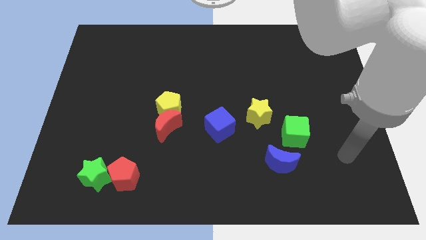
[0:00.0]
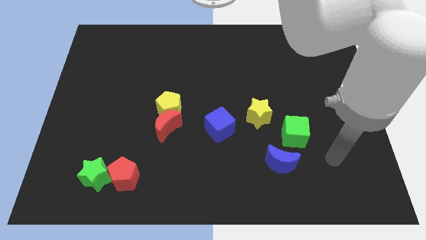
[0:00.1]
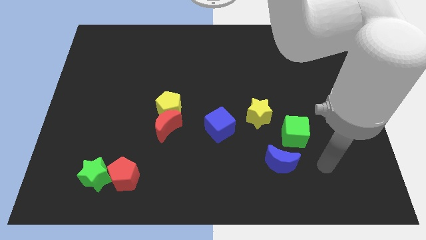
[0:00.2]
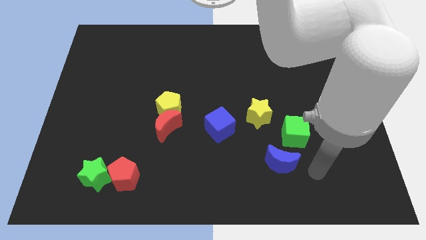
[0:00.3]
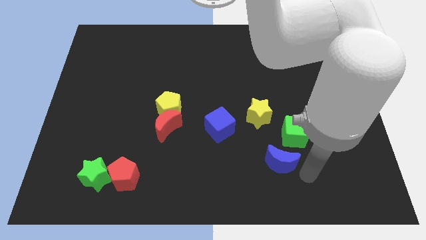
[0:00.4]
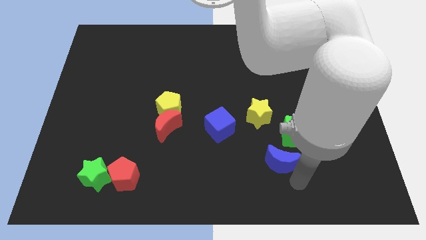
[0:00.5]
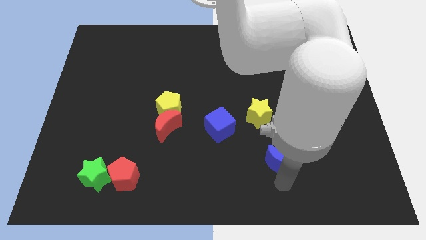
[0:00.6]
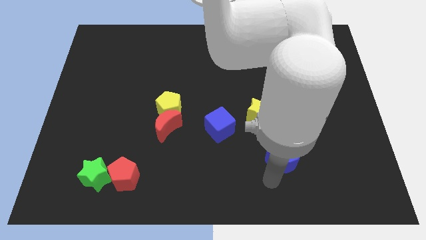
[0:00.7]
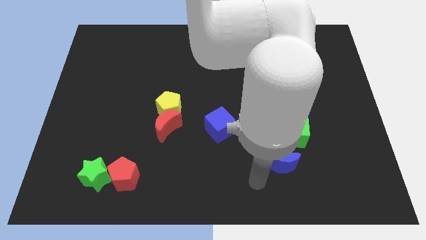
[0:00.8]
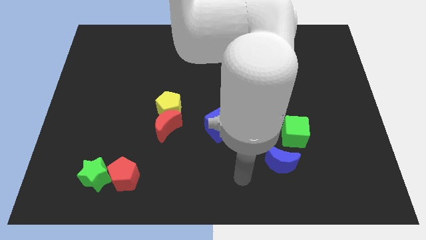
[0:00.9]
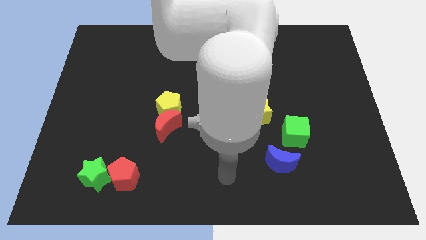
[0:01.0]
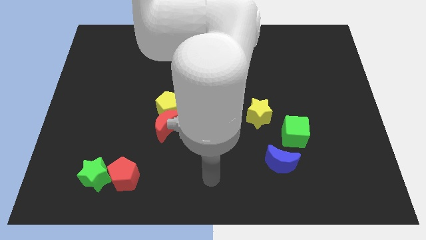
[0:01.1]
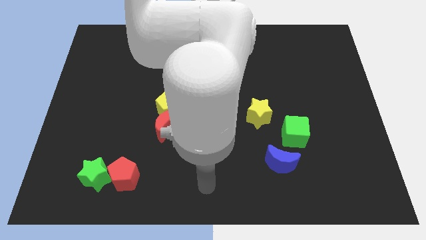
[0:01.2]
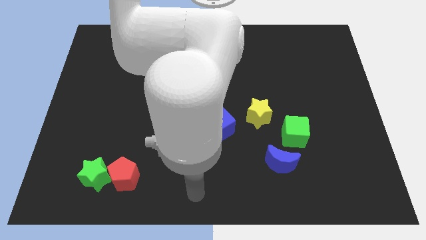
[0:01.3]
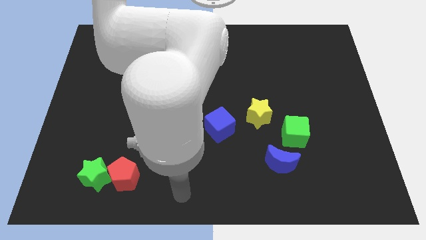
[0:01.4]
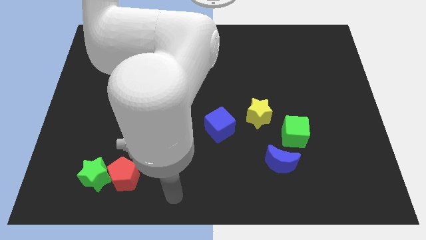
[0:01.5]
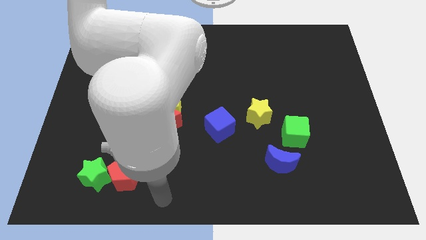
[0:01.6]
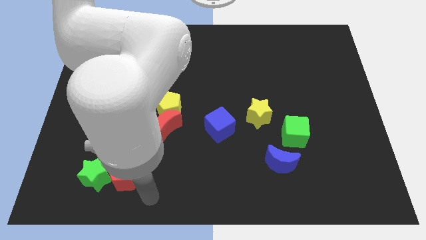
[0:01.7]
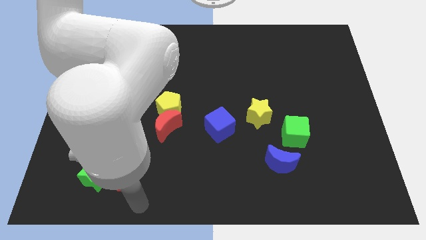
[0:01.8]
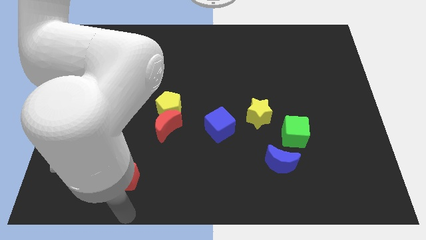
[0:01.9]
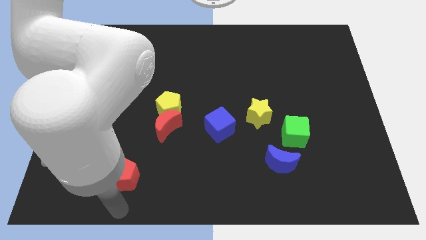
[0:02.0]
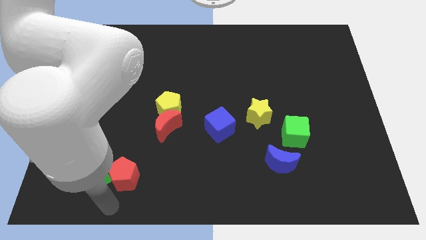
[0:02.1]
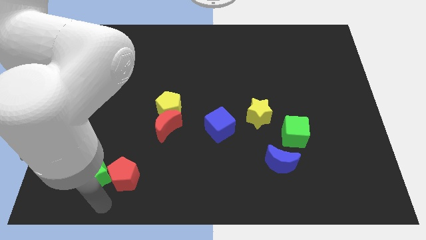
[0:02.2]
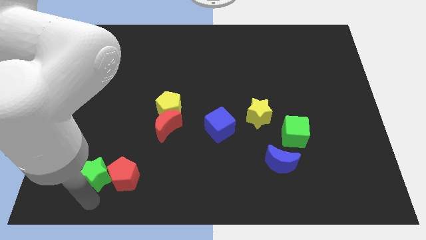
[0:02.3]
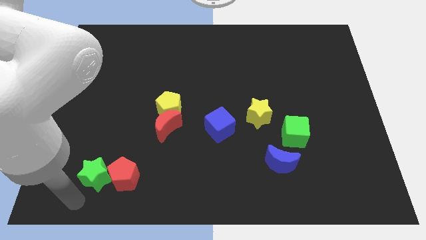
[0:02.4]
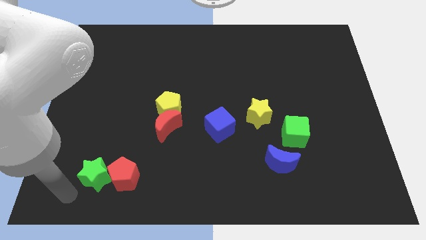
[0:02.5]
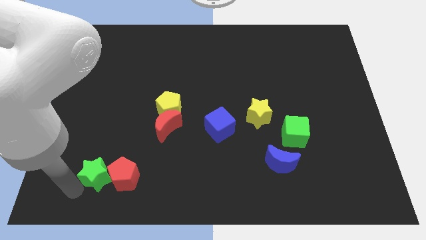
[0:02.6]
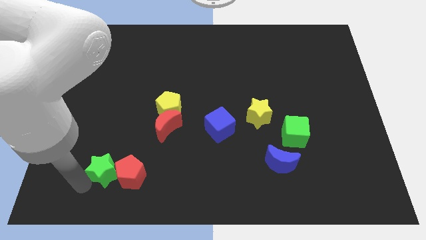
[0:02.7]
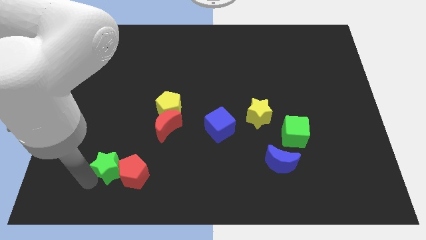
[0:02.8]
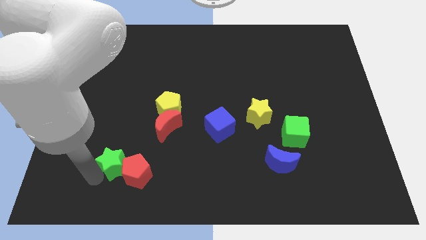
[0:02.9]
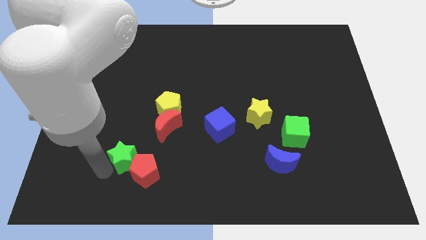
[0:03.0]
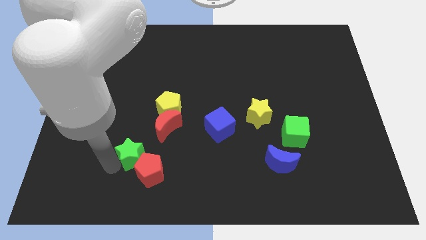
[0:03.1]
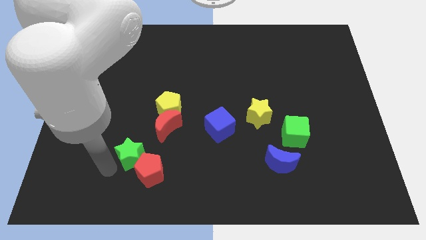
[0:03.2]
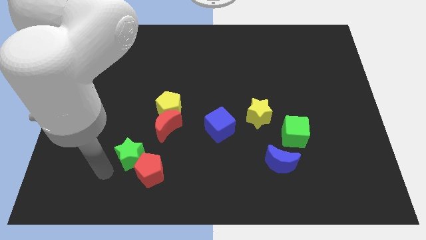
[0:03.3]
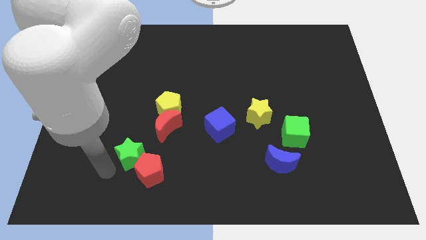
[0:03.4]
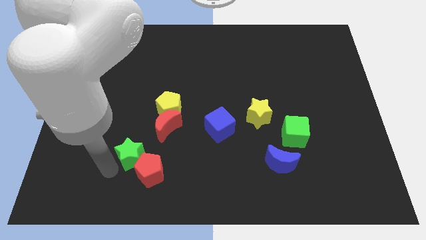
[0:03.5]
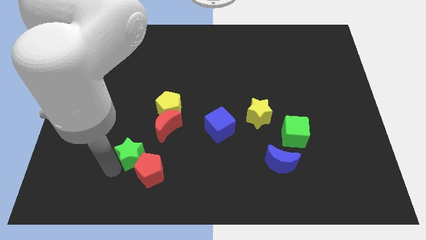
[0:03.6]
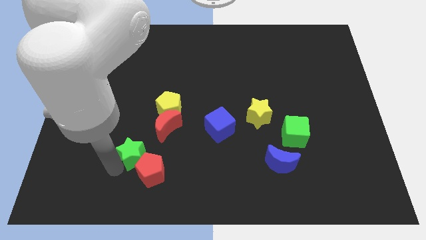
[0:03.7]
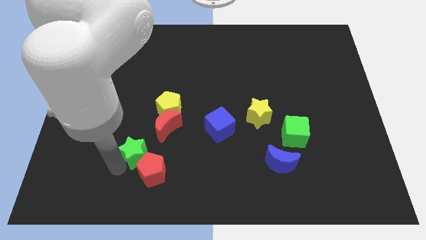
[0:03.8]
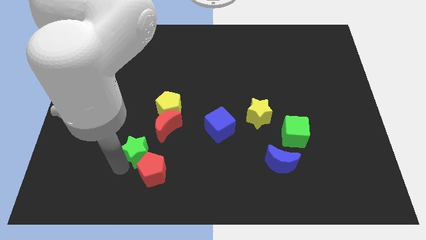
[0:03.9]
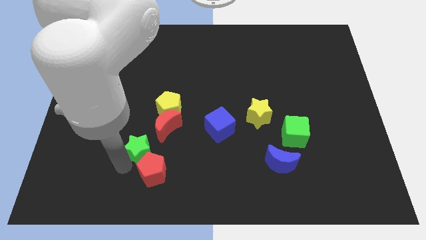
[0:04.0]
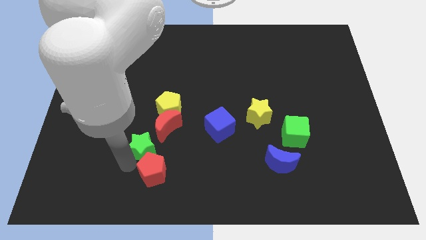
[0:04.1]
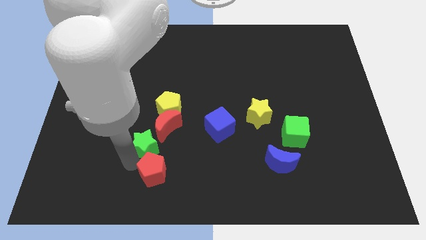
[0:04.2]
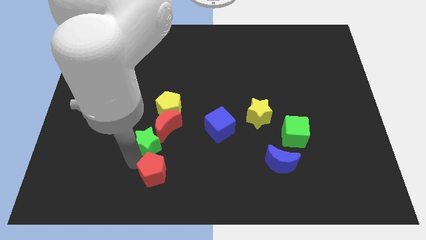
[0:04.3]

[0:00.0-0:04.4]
move the green star towards the red moon

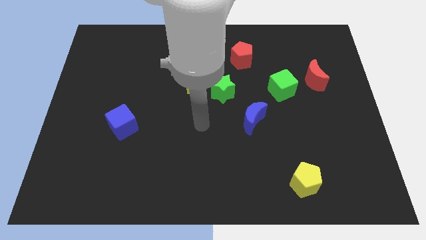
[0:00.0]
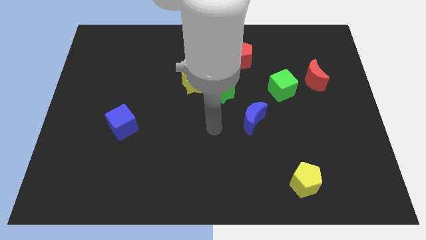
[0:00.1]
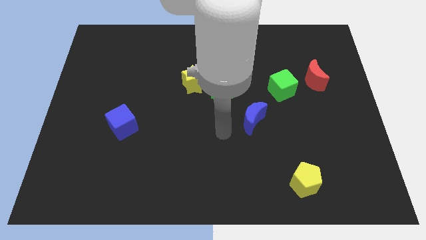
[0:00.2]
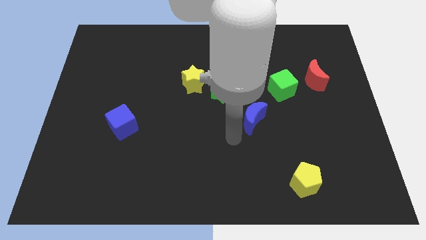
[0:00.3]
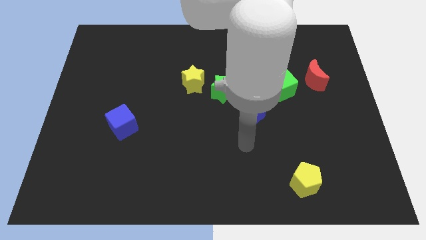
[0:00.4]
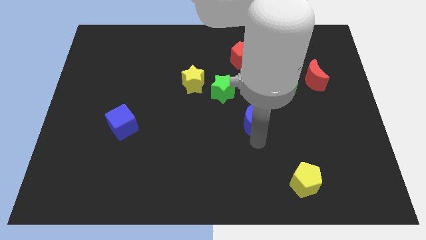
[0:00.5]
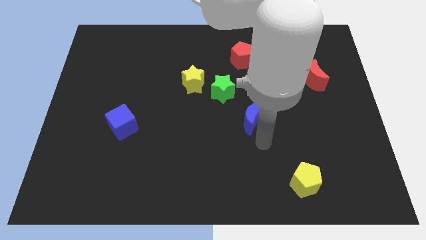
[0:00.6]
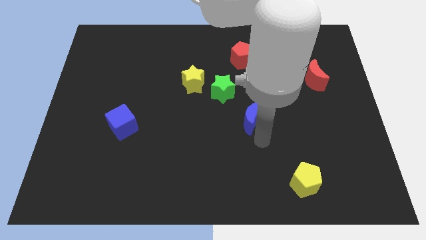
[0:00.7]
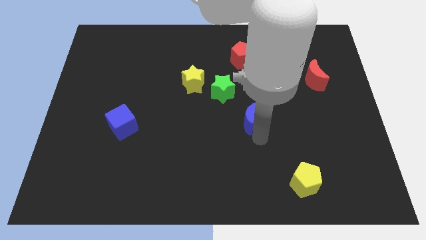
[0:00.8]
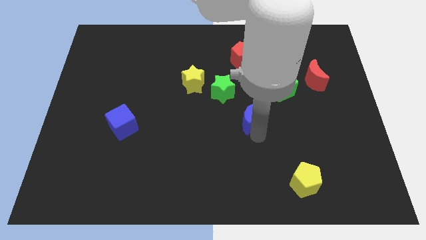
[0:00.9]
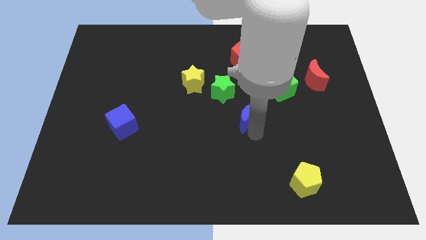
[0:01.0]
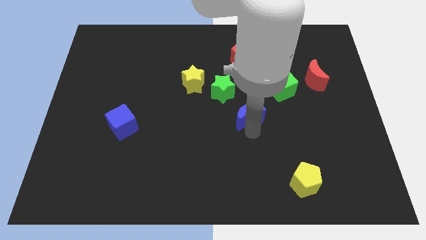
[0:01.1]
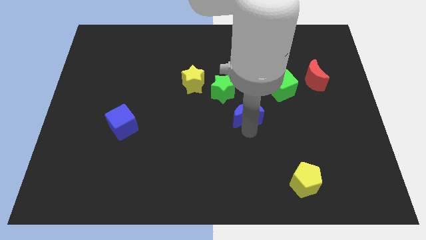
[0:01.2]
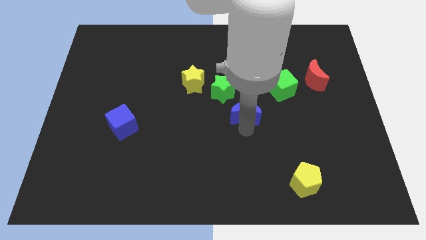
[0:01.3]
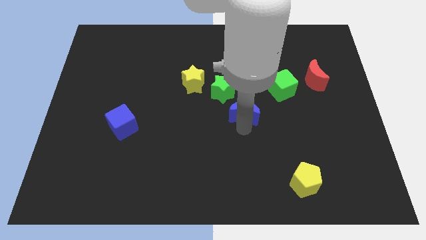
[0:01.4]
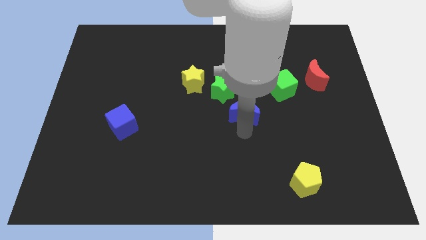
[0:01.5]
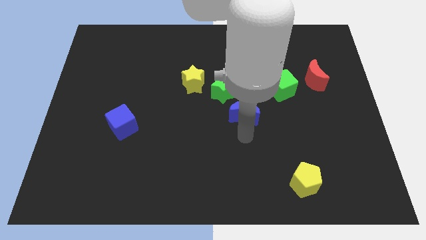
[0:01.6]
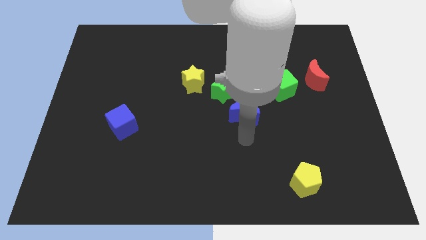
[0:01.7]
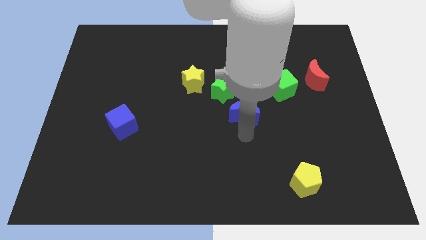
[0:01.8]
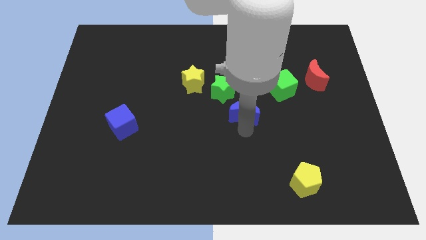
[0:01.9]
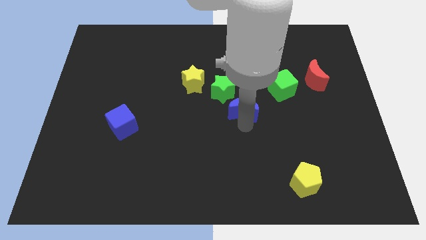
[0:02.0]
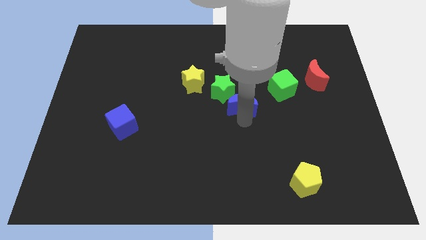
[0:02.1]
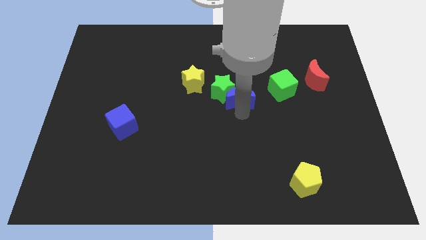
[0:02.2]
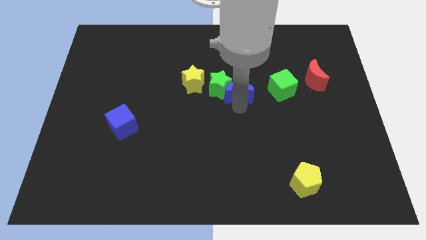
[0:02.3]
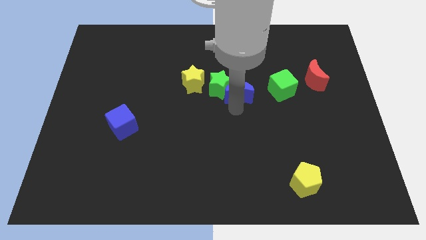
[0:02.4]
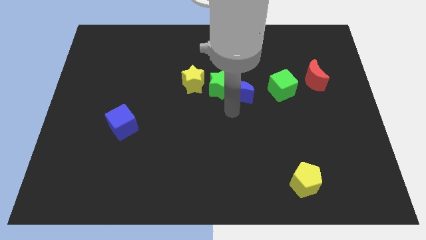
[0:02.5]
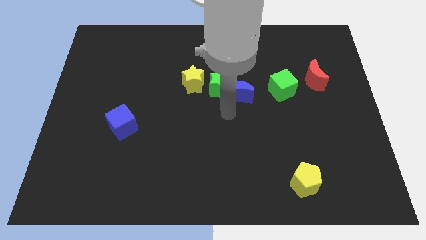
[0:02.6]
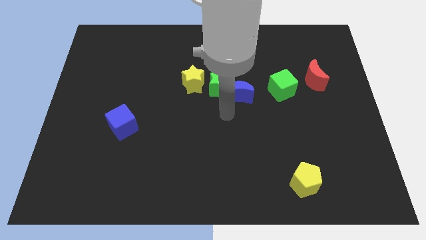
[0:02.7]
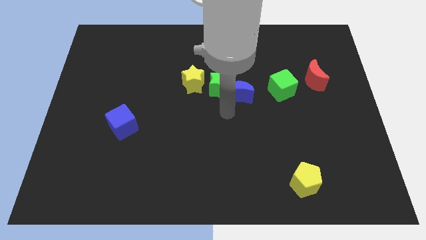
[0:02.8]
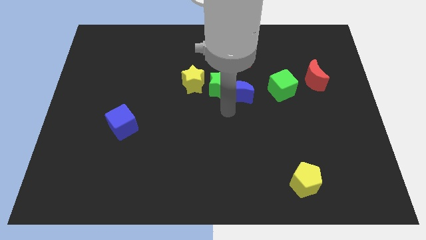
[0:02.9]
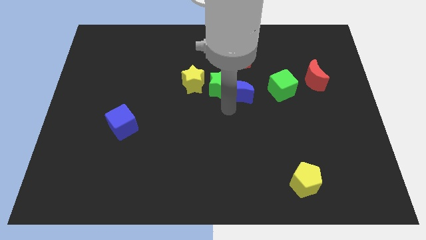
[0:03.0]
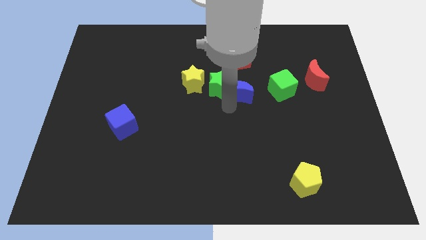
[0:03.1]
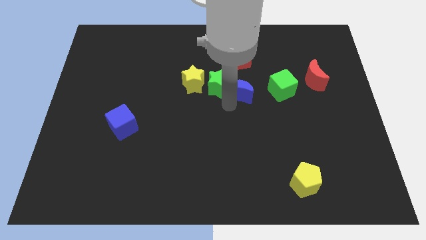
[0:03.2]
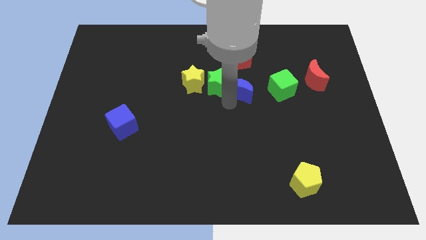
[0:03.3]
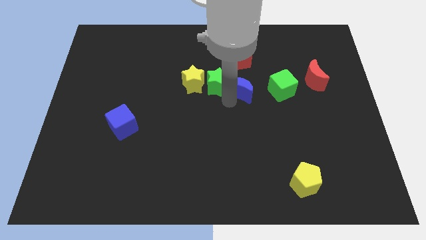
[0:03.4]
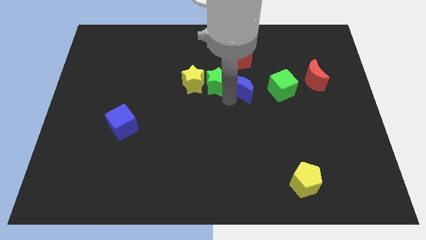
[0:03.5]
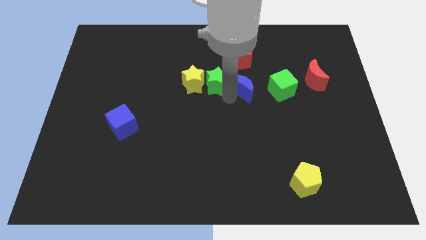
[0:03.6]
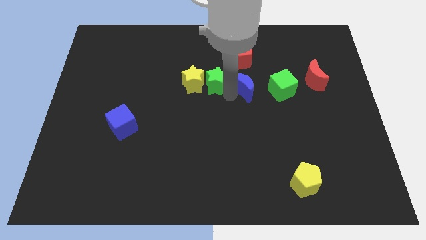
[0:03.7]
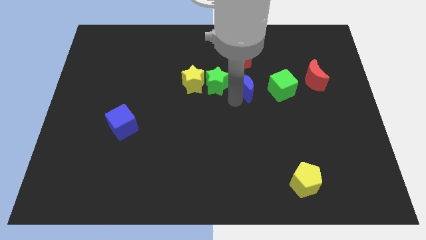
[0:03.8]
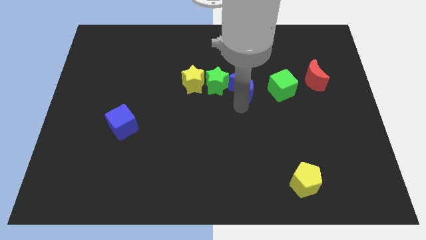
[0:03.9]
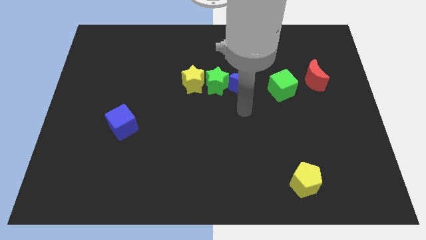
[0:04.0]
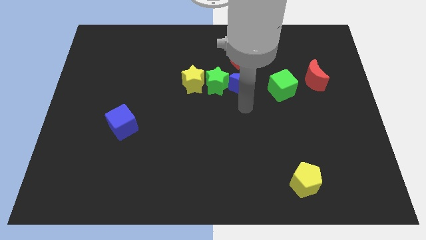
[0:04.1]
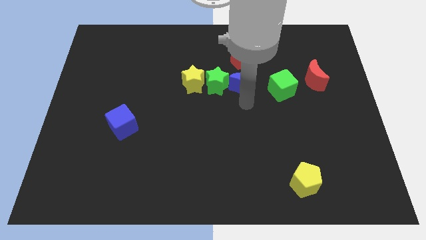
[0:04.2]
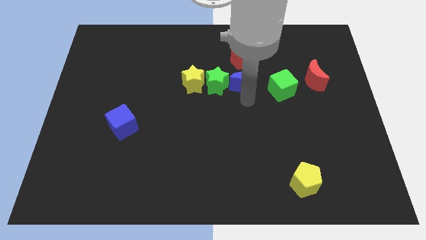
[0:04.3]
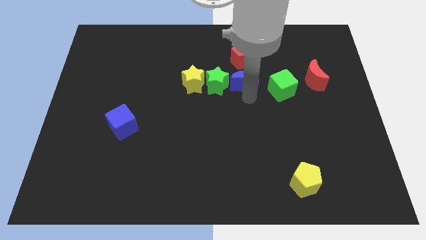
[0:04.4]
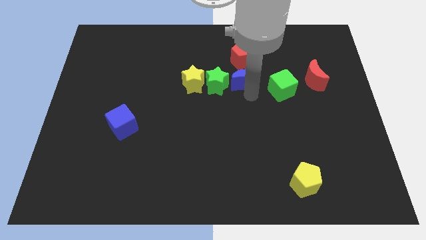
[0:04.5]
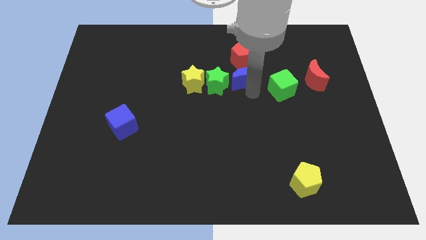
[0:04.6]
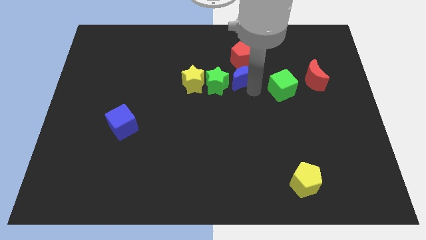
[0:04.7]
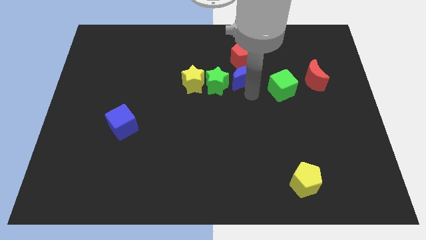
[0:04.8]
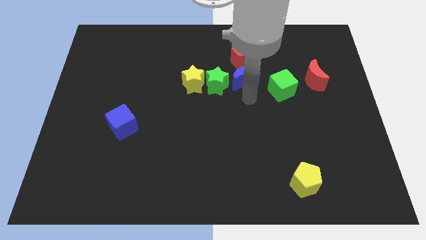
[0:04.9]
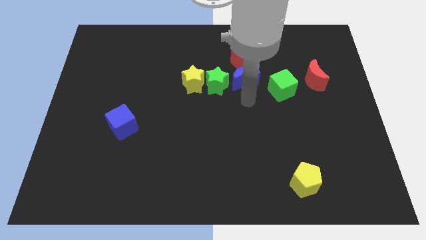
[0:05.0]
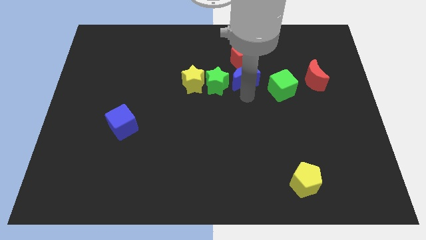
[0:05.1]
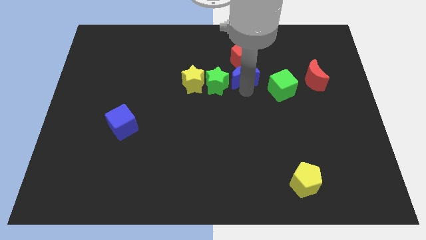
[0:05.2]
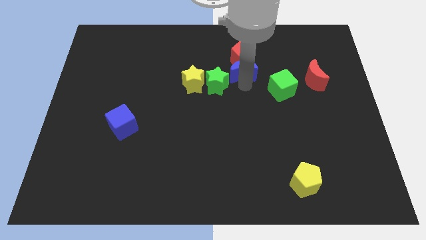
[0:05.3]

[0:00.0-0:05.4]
push the blue moon towards the red pentagon
